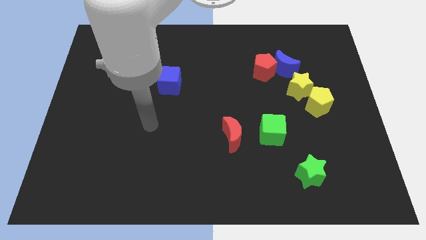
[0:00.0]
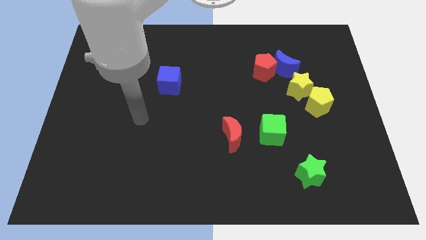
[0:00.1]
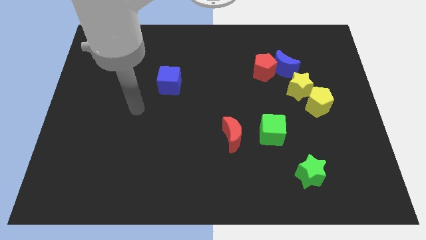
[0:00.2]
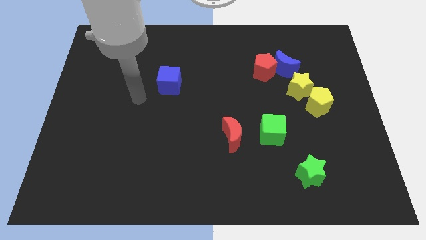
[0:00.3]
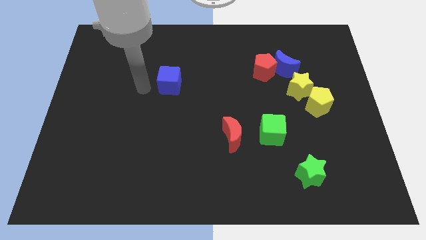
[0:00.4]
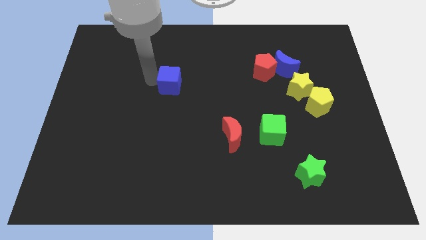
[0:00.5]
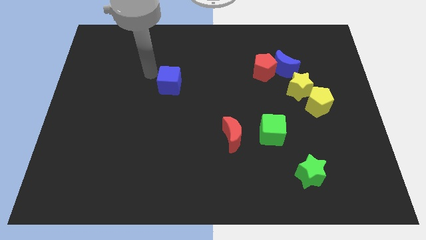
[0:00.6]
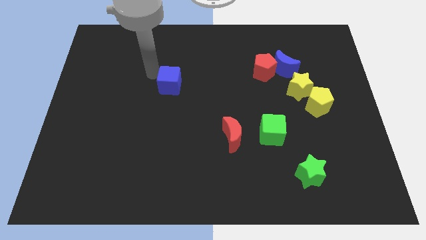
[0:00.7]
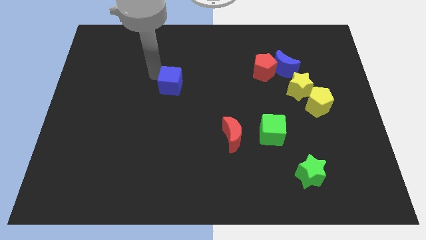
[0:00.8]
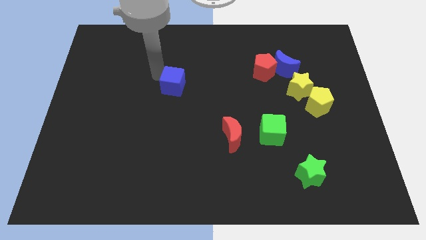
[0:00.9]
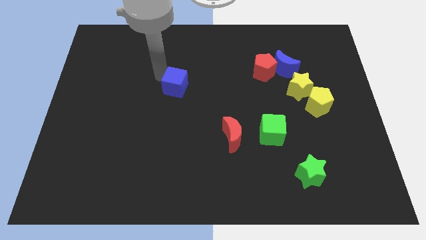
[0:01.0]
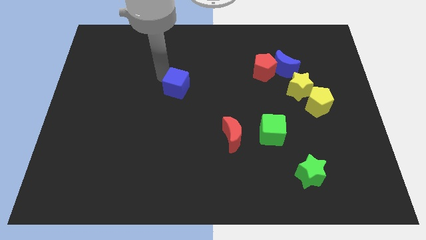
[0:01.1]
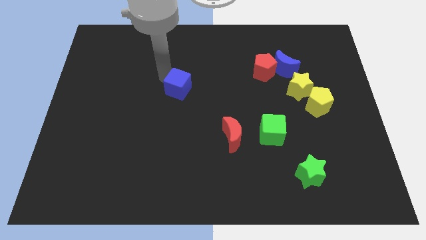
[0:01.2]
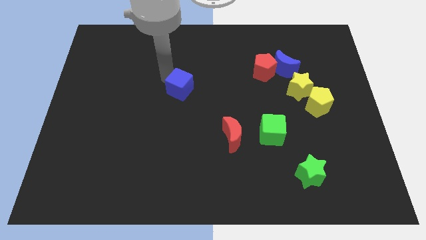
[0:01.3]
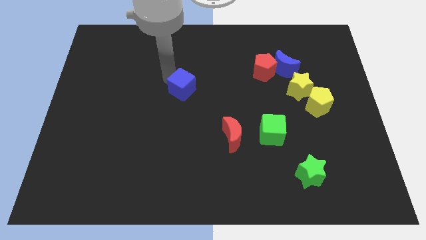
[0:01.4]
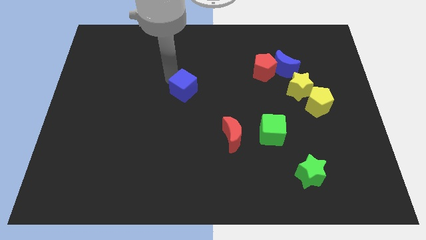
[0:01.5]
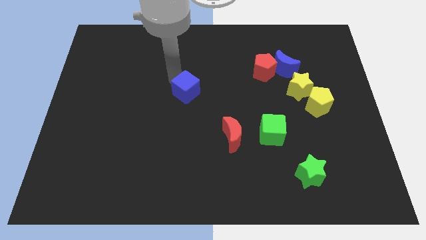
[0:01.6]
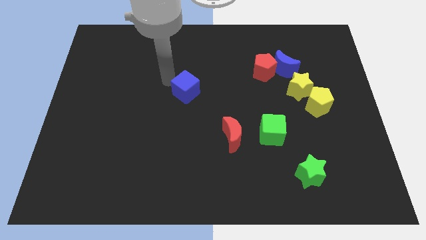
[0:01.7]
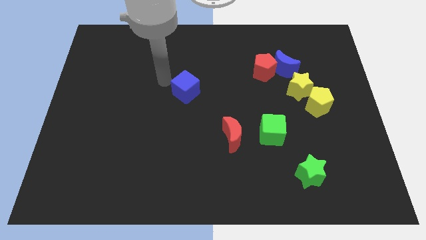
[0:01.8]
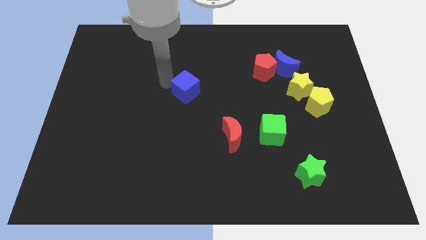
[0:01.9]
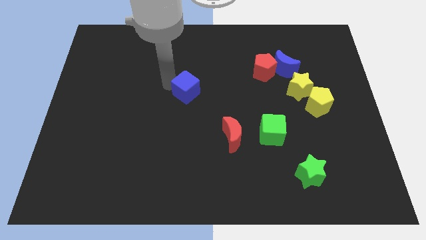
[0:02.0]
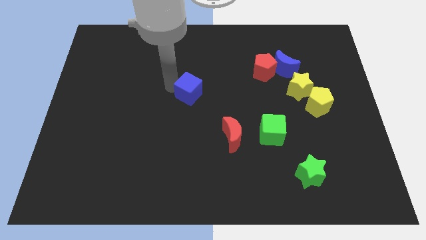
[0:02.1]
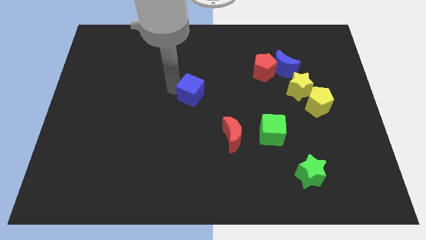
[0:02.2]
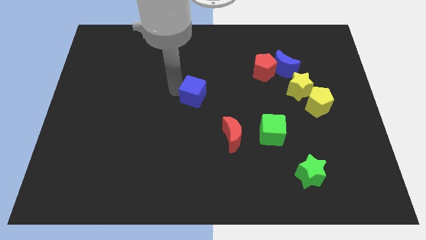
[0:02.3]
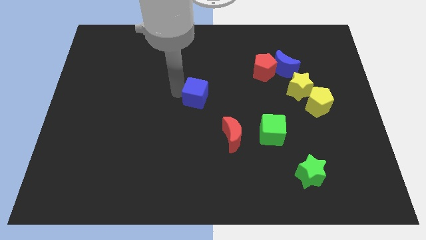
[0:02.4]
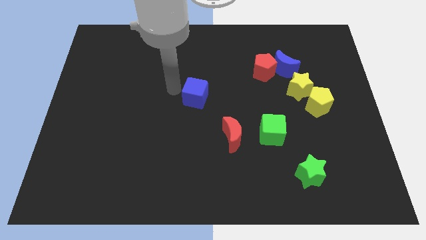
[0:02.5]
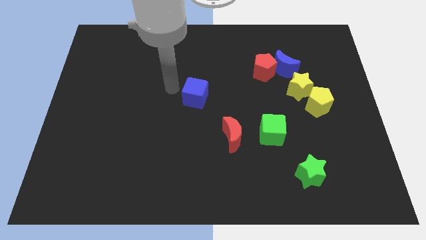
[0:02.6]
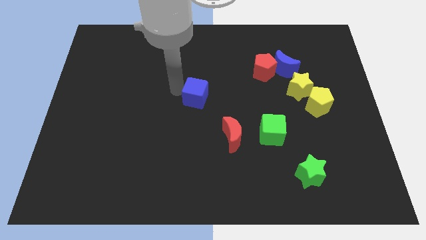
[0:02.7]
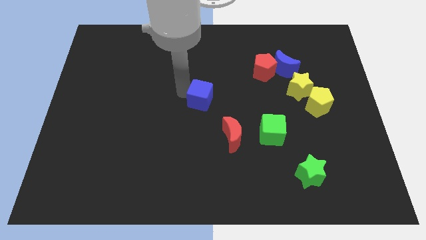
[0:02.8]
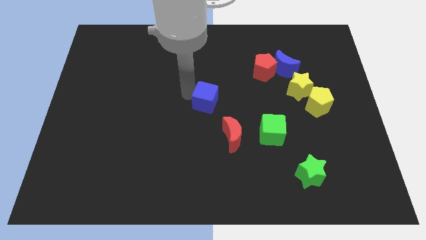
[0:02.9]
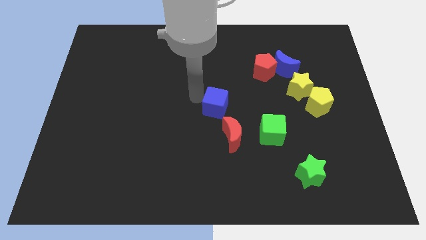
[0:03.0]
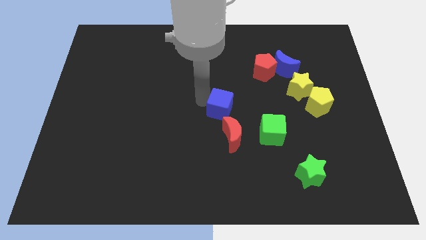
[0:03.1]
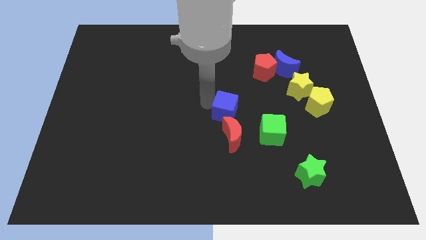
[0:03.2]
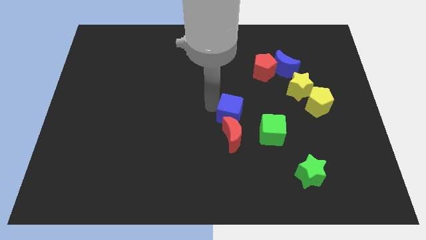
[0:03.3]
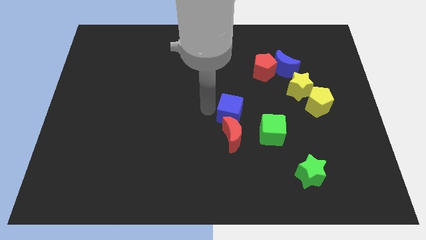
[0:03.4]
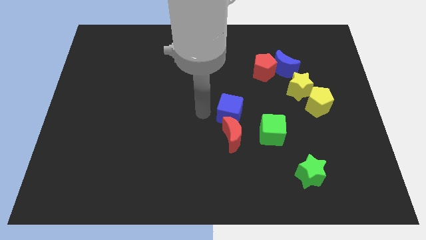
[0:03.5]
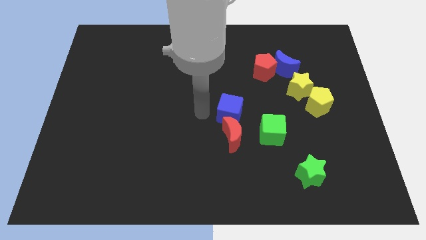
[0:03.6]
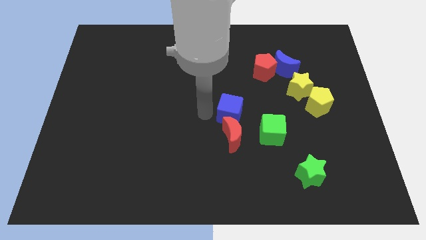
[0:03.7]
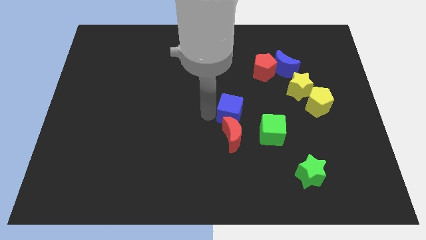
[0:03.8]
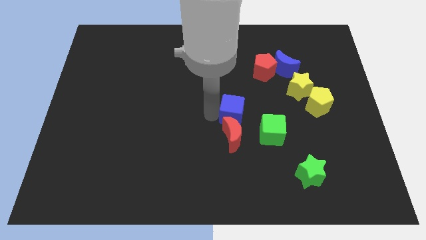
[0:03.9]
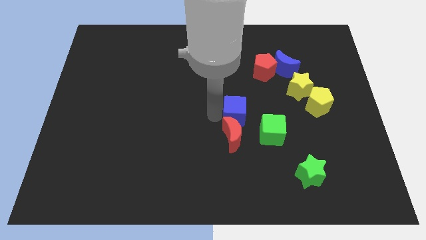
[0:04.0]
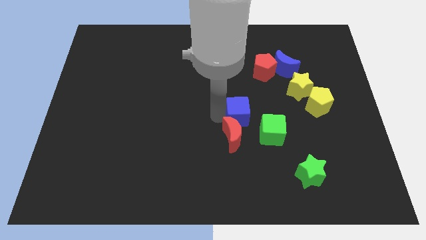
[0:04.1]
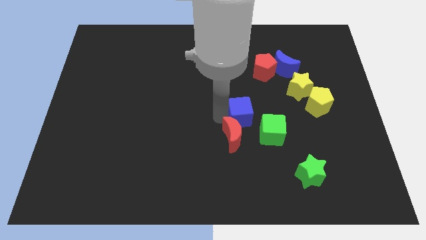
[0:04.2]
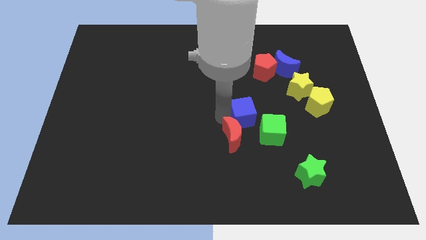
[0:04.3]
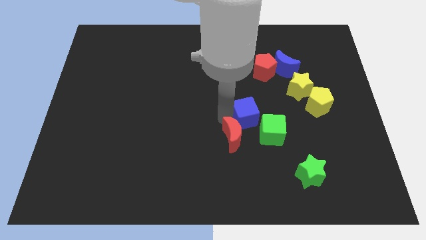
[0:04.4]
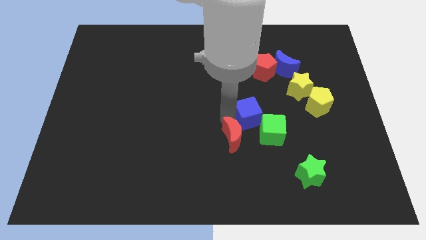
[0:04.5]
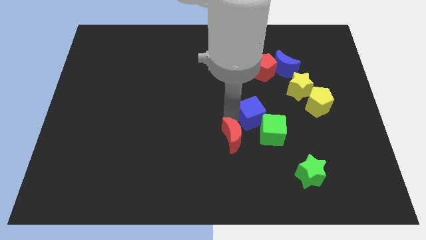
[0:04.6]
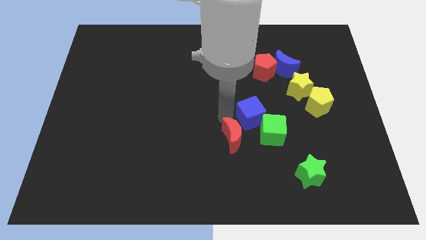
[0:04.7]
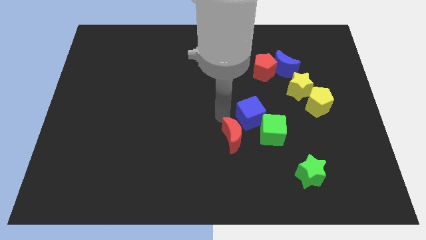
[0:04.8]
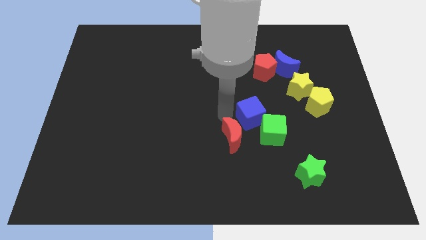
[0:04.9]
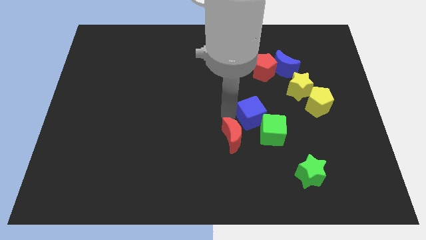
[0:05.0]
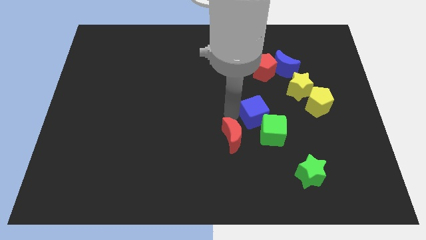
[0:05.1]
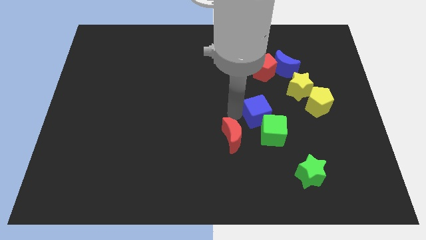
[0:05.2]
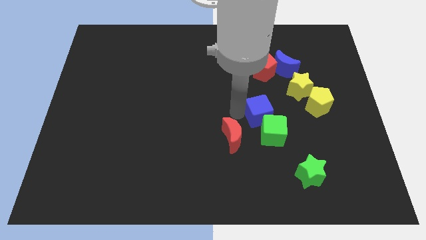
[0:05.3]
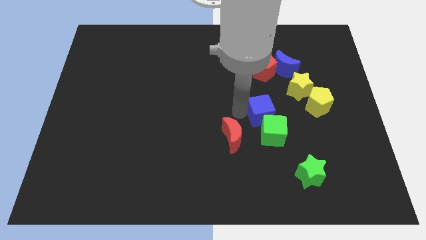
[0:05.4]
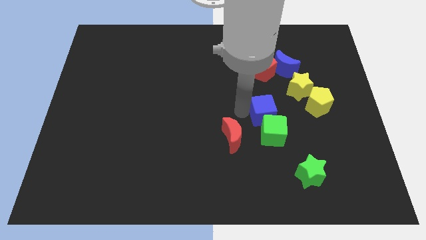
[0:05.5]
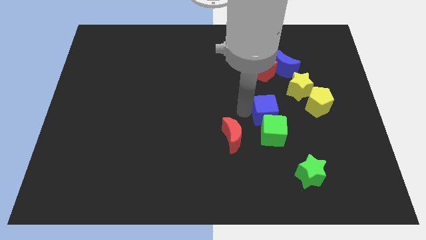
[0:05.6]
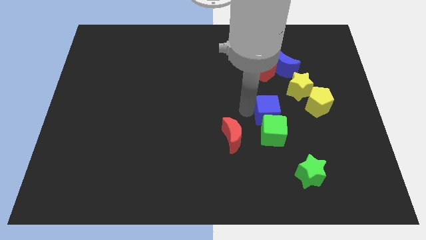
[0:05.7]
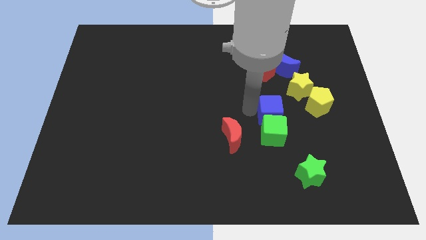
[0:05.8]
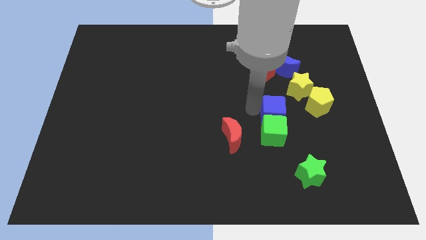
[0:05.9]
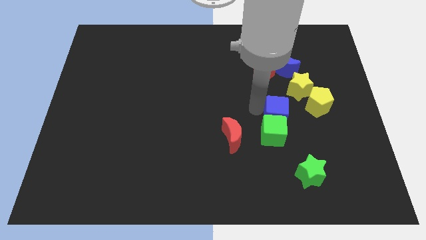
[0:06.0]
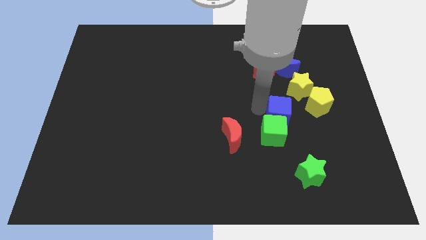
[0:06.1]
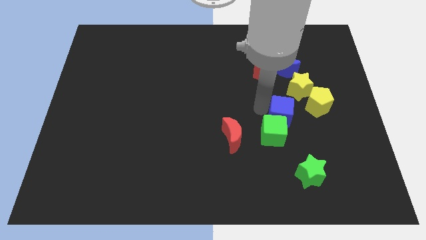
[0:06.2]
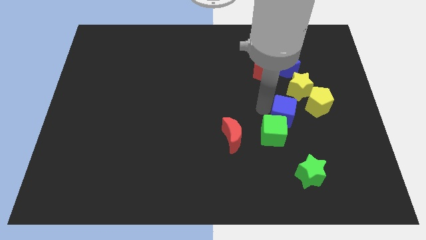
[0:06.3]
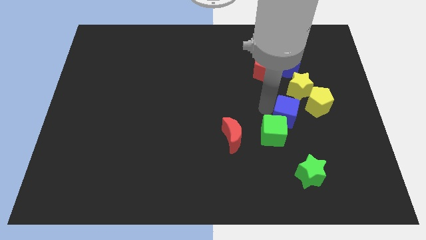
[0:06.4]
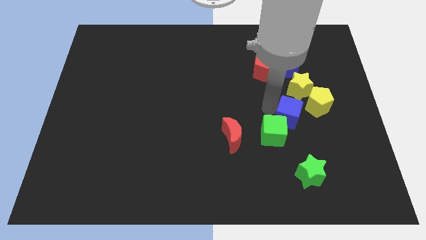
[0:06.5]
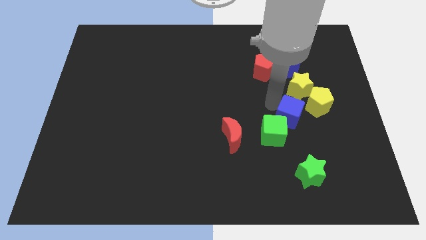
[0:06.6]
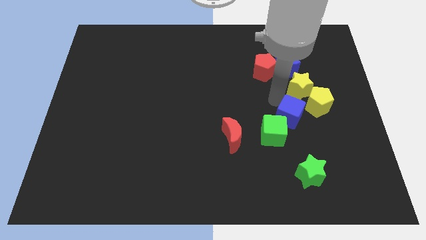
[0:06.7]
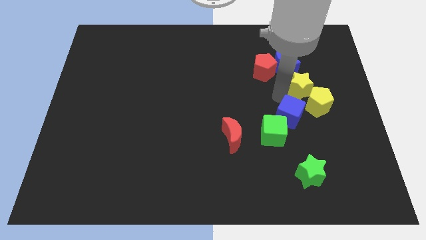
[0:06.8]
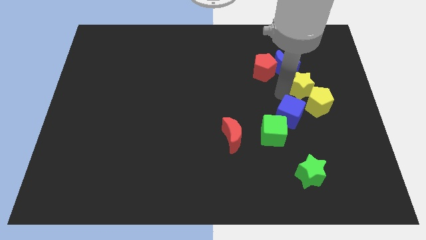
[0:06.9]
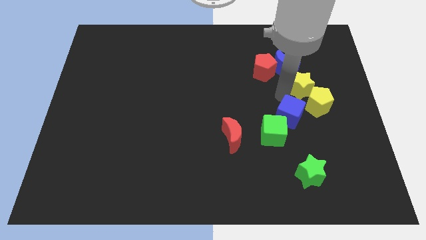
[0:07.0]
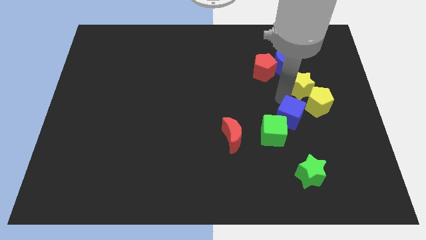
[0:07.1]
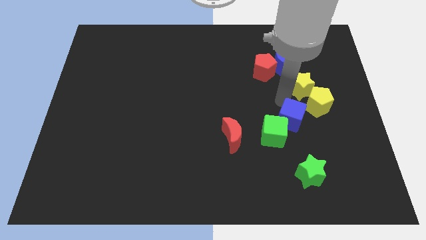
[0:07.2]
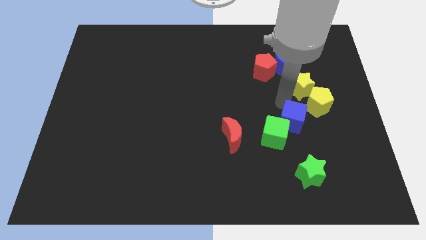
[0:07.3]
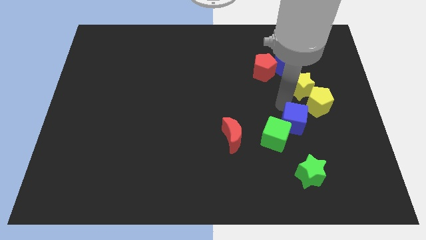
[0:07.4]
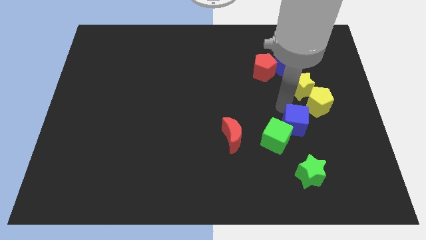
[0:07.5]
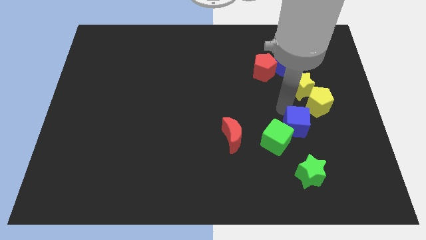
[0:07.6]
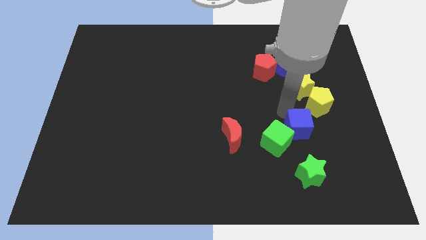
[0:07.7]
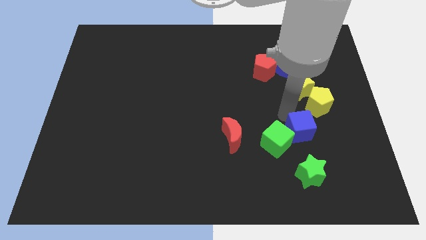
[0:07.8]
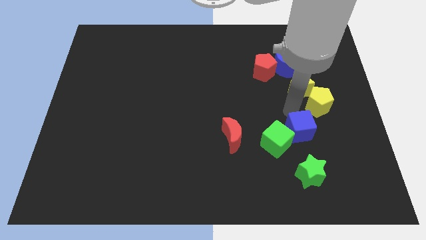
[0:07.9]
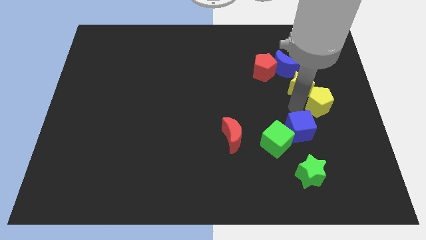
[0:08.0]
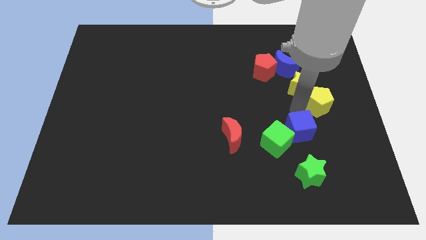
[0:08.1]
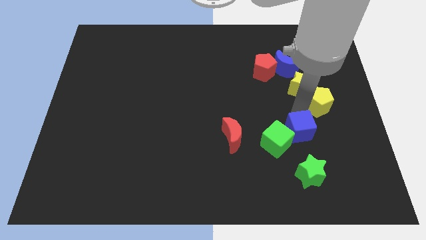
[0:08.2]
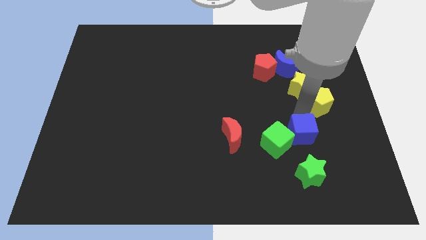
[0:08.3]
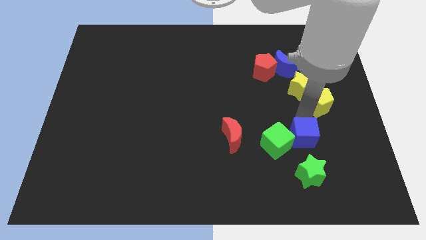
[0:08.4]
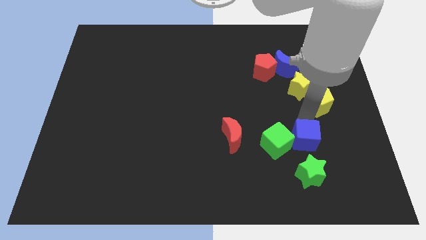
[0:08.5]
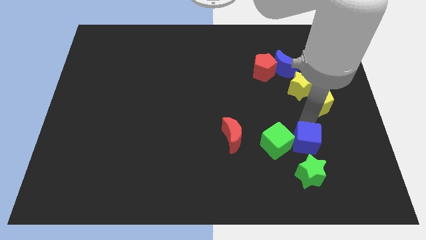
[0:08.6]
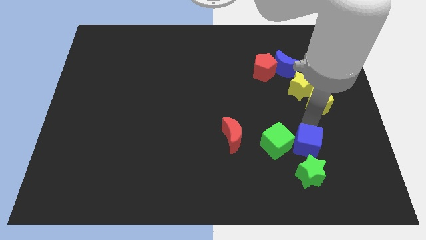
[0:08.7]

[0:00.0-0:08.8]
put the blue cube diagonally down and to the right of the green cube
